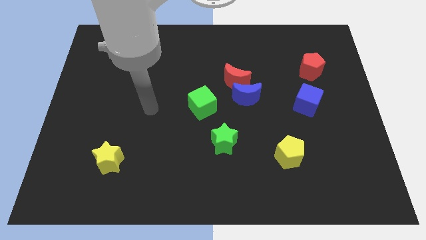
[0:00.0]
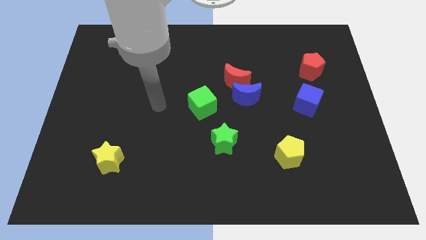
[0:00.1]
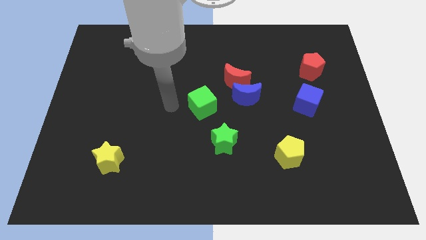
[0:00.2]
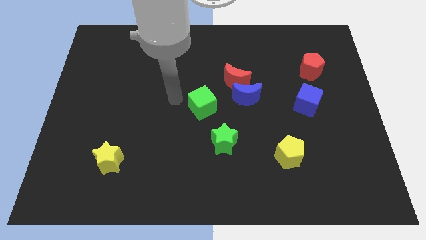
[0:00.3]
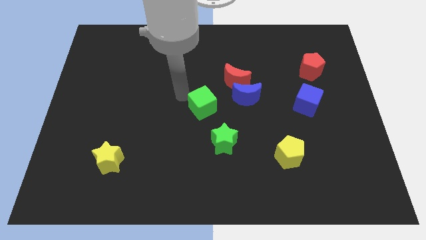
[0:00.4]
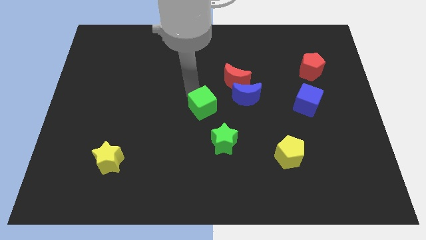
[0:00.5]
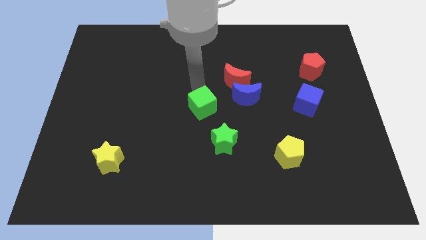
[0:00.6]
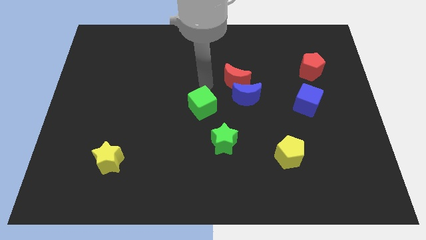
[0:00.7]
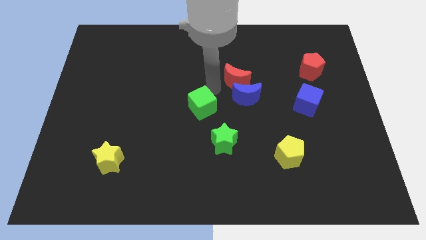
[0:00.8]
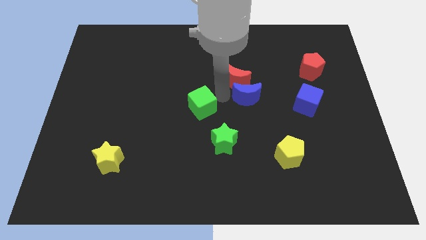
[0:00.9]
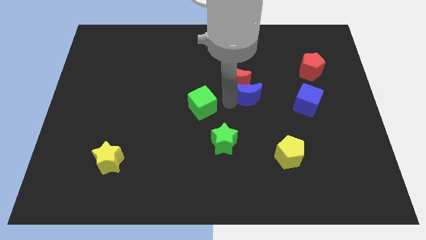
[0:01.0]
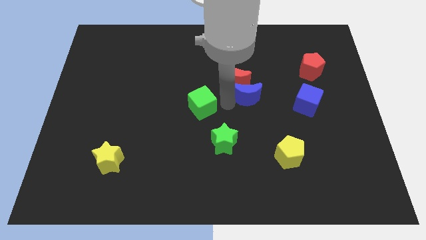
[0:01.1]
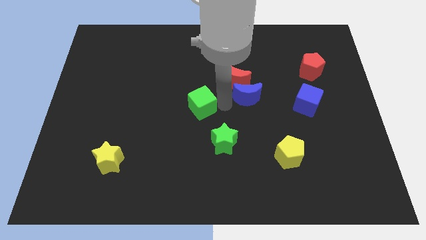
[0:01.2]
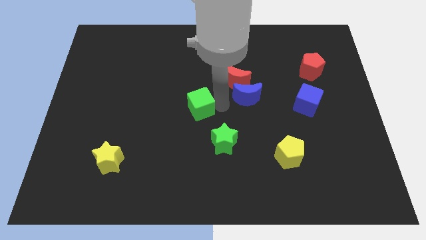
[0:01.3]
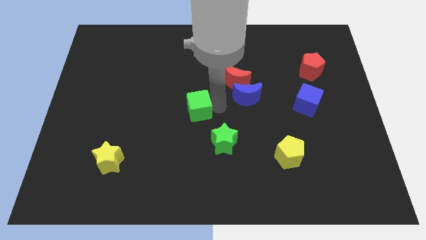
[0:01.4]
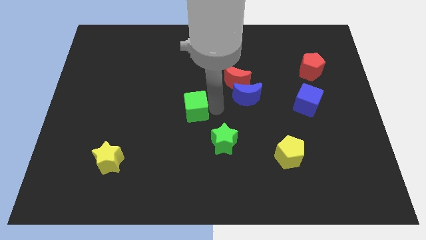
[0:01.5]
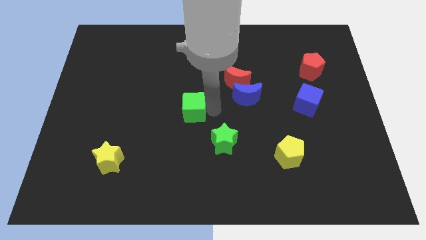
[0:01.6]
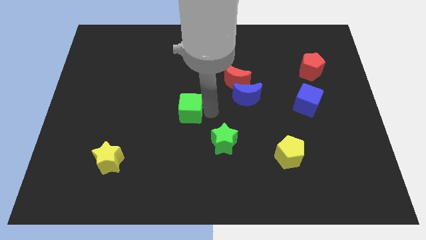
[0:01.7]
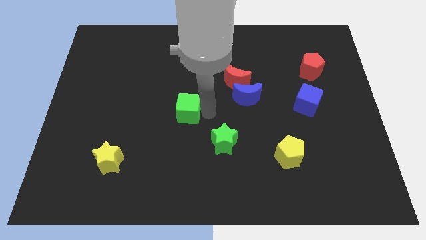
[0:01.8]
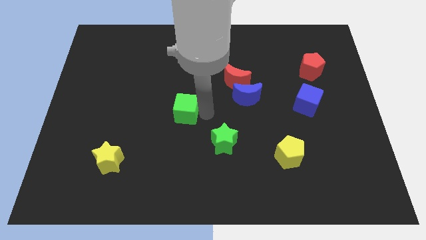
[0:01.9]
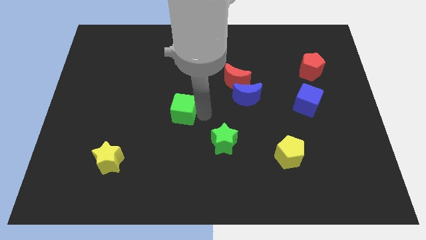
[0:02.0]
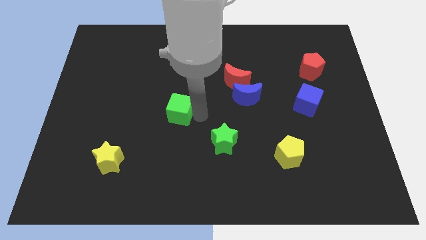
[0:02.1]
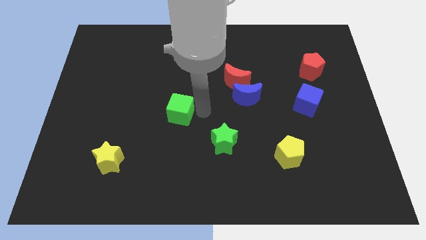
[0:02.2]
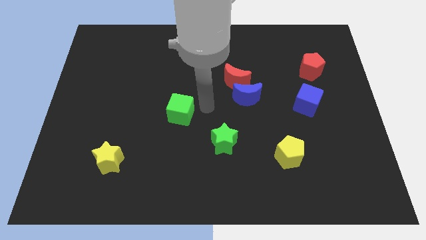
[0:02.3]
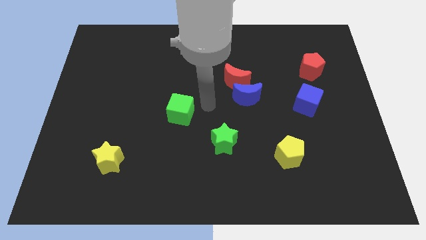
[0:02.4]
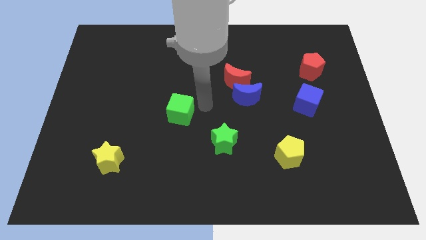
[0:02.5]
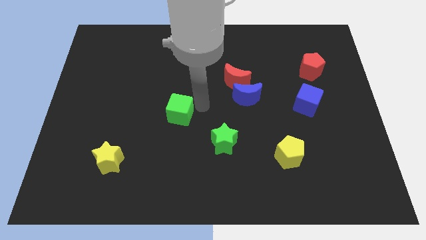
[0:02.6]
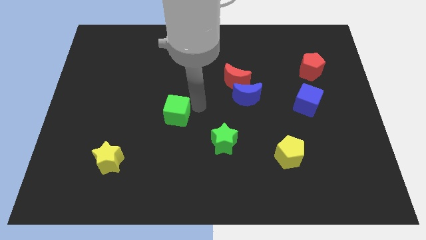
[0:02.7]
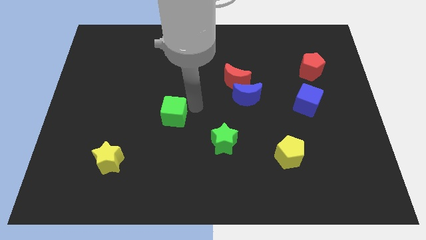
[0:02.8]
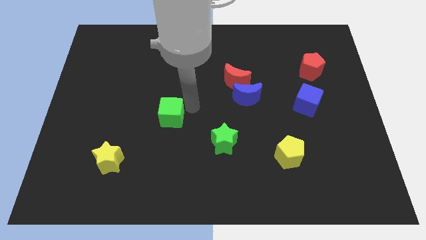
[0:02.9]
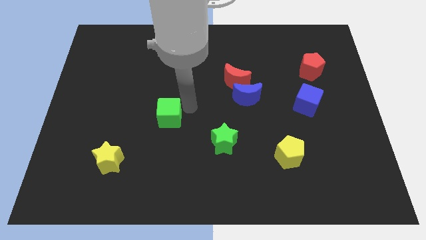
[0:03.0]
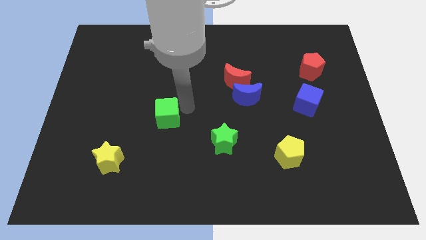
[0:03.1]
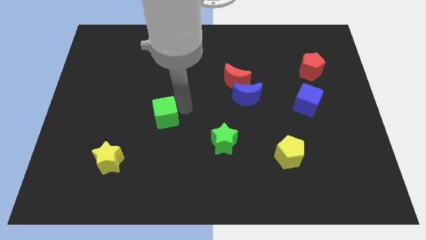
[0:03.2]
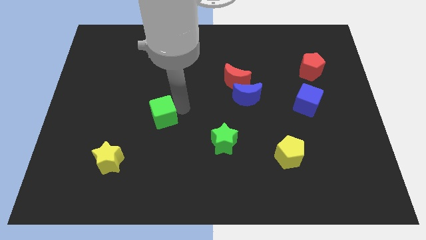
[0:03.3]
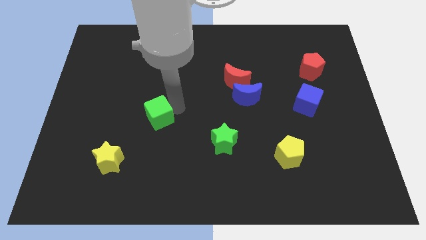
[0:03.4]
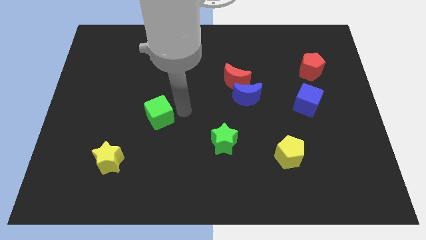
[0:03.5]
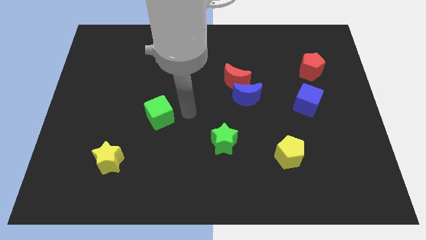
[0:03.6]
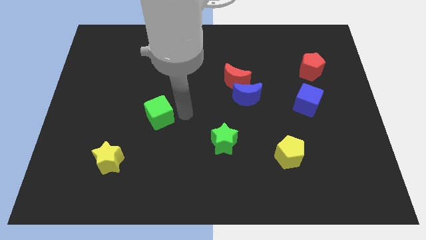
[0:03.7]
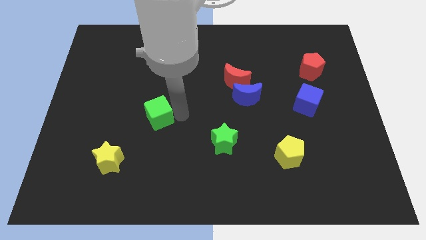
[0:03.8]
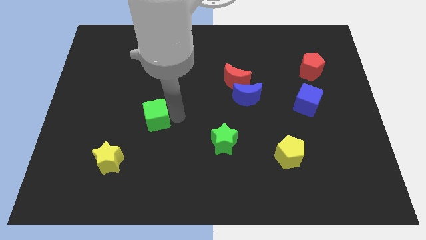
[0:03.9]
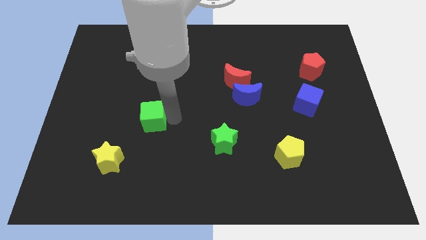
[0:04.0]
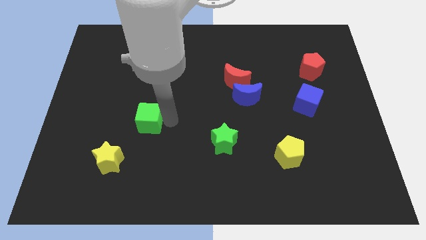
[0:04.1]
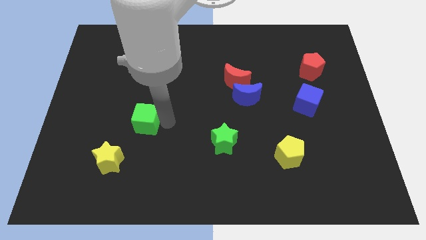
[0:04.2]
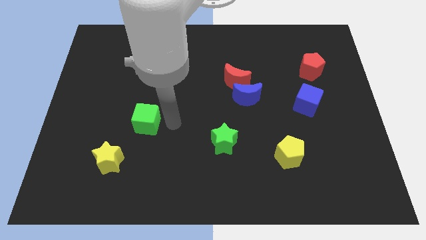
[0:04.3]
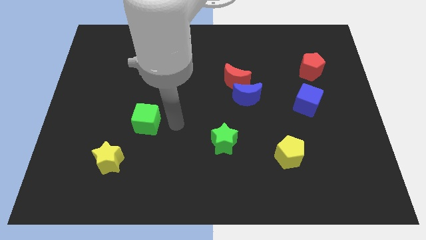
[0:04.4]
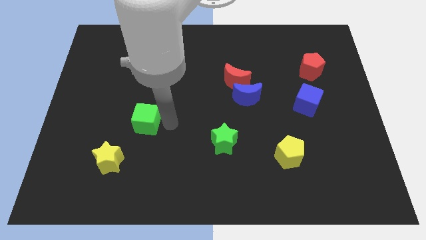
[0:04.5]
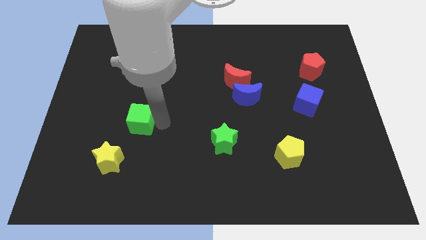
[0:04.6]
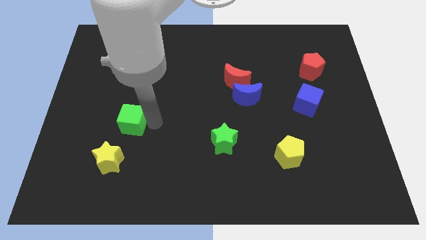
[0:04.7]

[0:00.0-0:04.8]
put the green cube above the yellow star

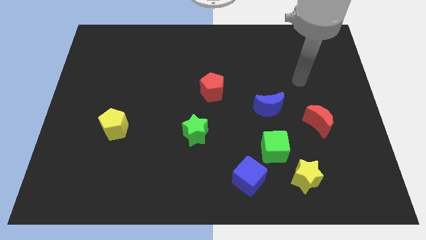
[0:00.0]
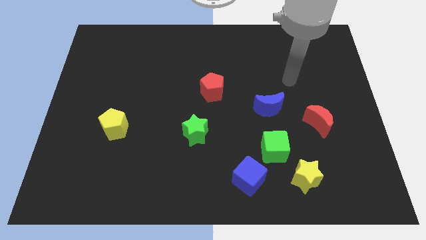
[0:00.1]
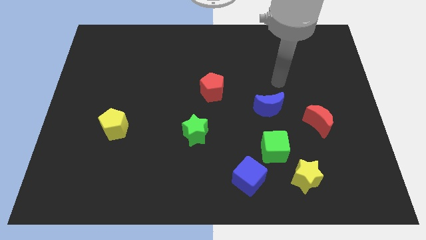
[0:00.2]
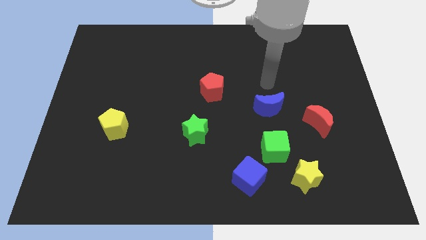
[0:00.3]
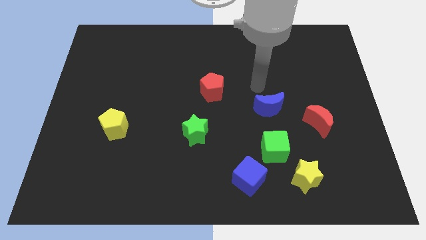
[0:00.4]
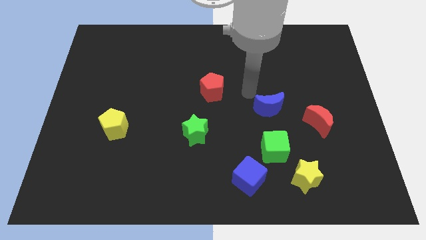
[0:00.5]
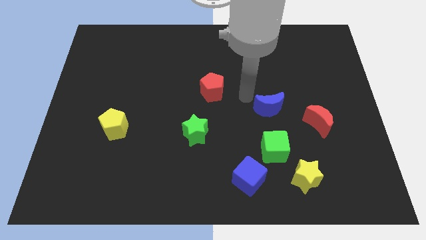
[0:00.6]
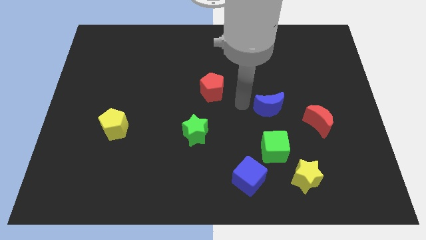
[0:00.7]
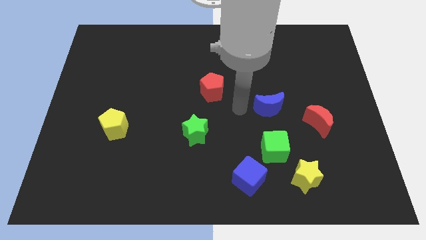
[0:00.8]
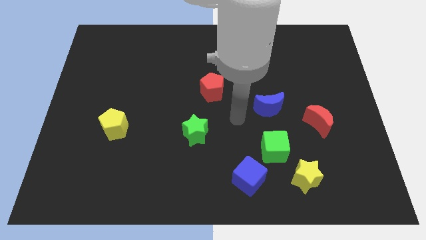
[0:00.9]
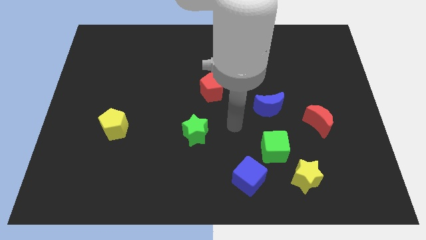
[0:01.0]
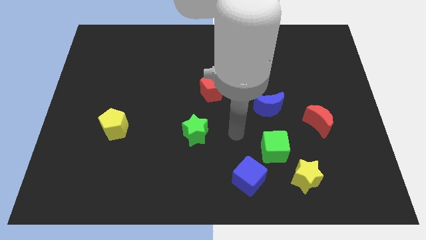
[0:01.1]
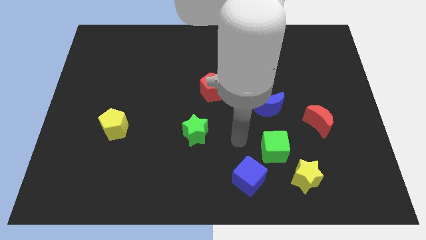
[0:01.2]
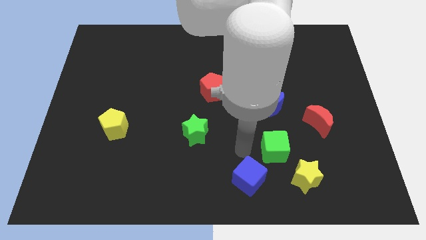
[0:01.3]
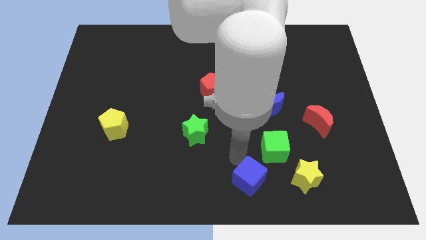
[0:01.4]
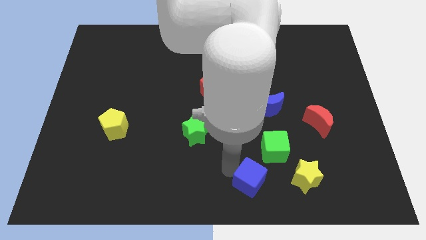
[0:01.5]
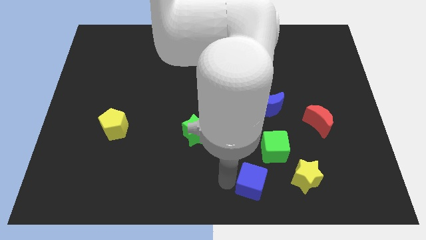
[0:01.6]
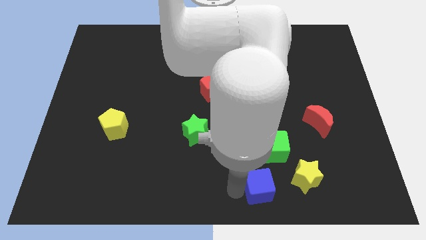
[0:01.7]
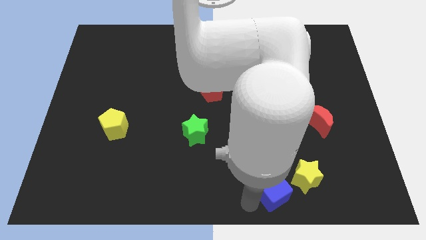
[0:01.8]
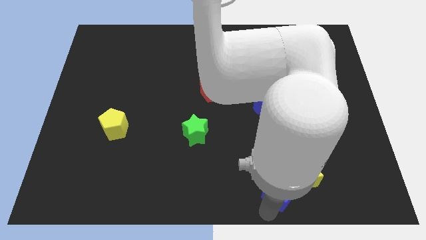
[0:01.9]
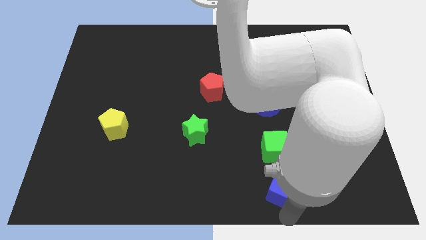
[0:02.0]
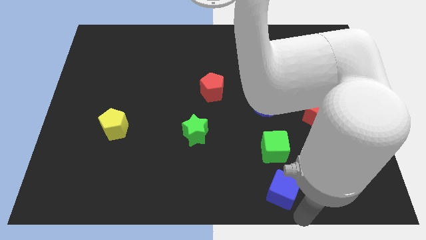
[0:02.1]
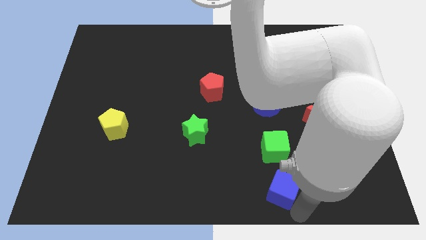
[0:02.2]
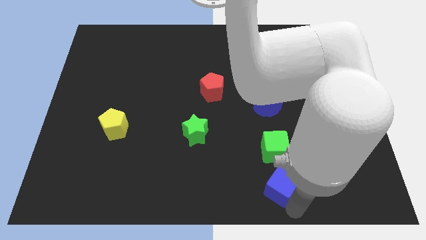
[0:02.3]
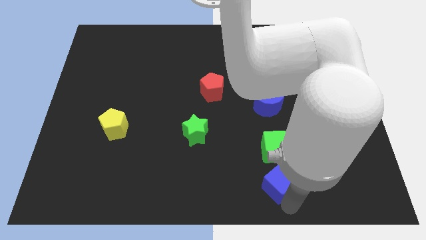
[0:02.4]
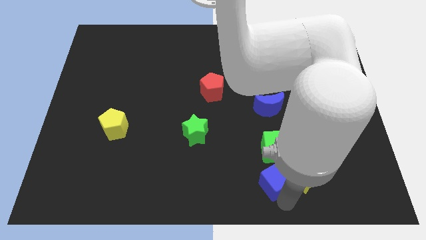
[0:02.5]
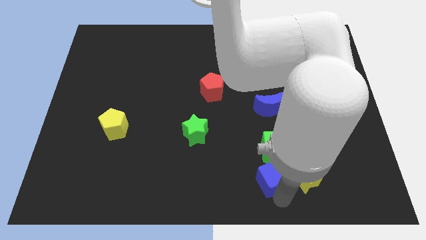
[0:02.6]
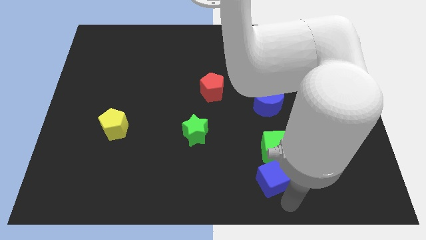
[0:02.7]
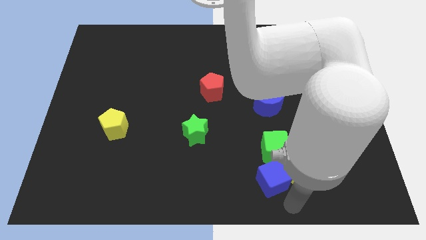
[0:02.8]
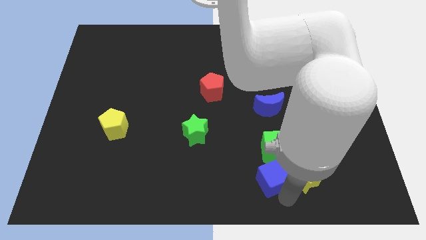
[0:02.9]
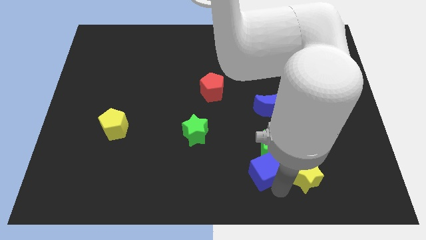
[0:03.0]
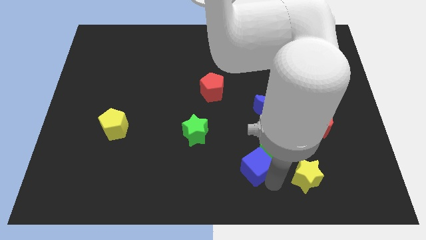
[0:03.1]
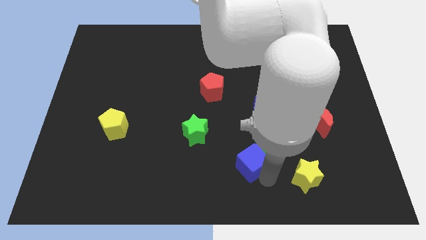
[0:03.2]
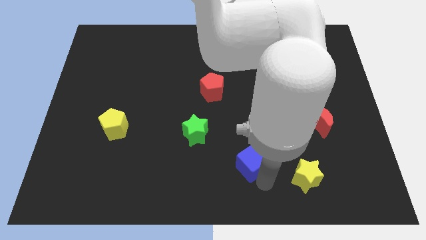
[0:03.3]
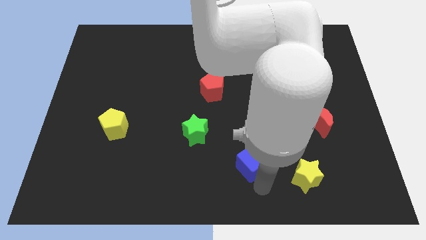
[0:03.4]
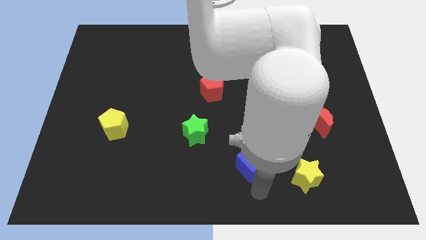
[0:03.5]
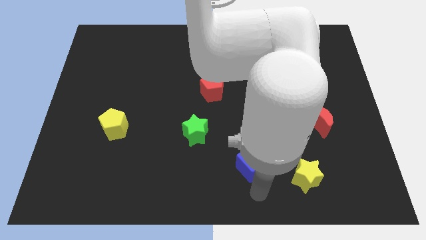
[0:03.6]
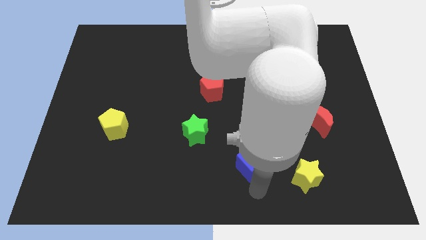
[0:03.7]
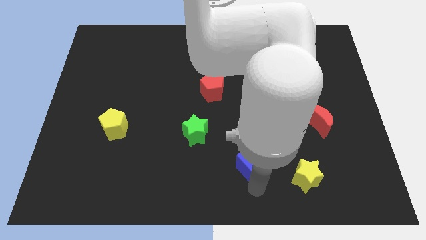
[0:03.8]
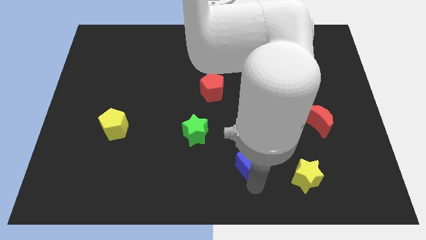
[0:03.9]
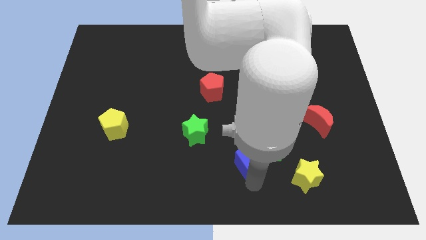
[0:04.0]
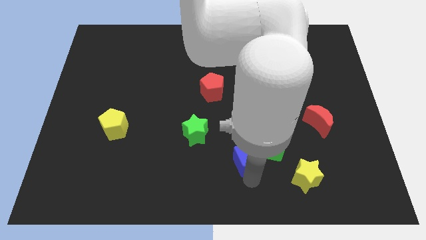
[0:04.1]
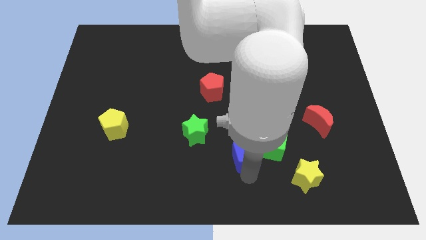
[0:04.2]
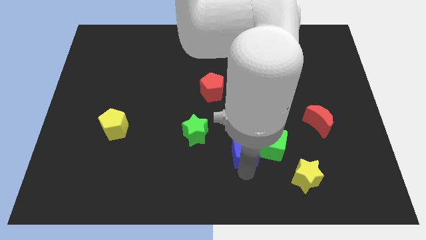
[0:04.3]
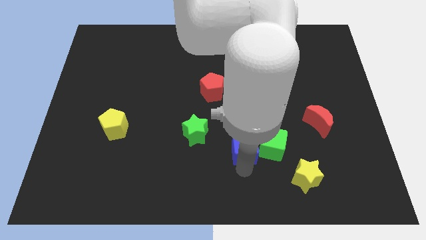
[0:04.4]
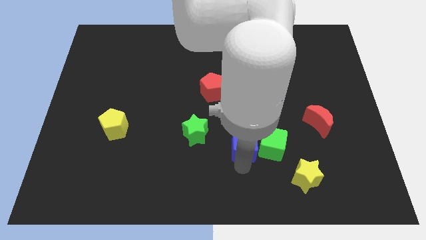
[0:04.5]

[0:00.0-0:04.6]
slide the blue cube to the top left side of the green cube
